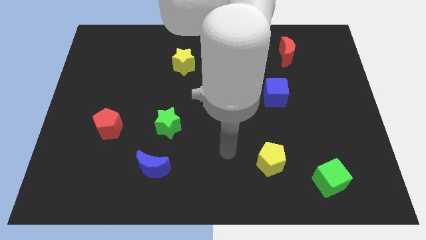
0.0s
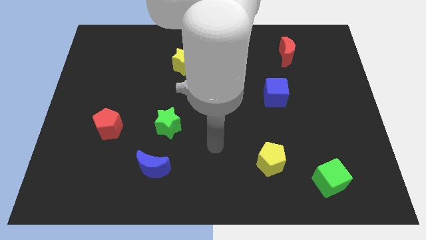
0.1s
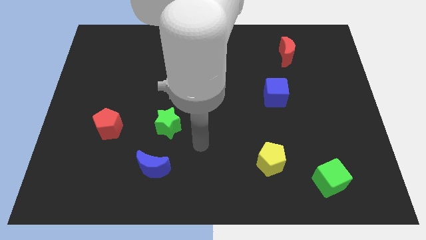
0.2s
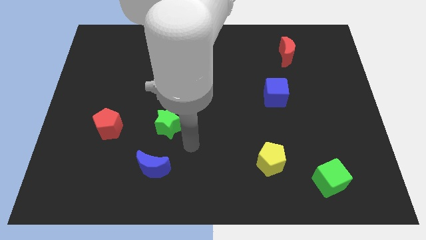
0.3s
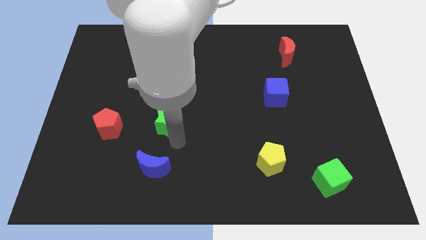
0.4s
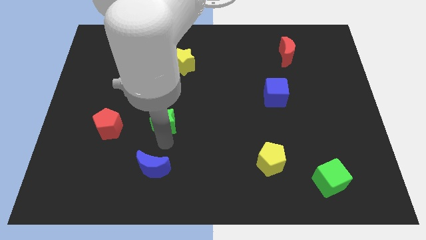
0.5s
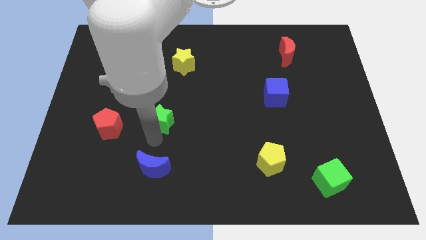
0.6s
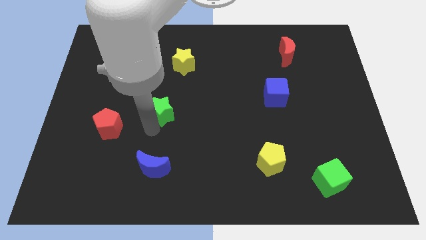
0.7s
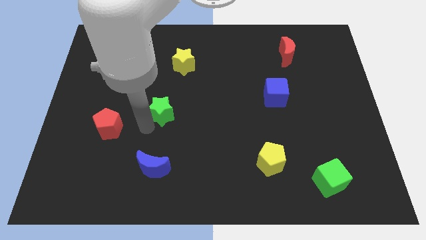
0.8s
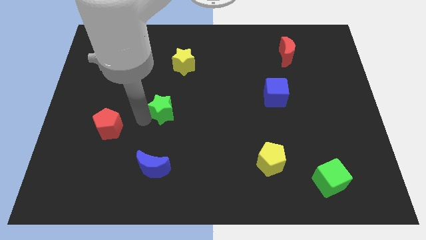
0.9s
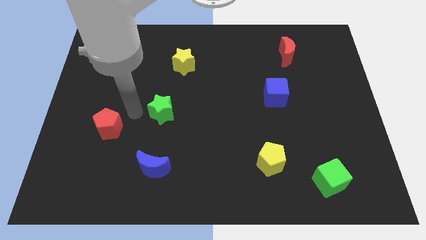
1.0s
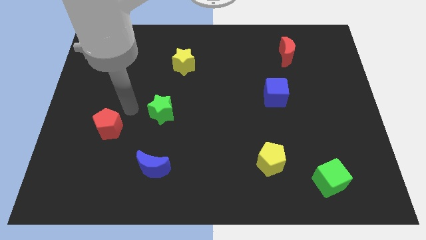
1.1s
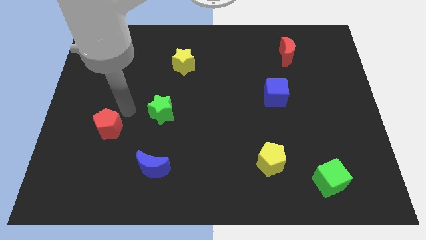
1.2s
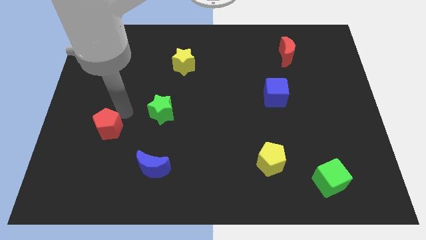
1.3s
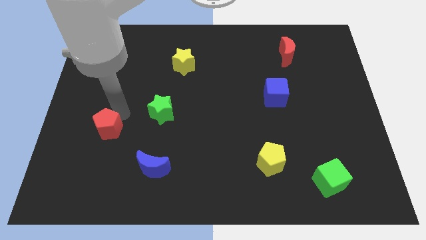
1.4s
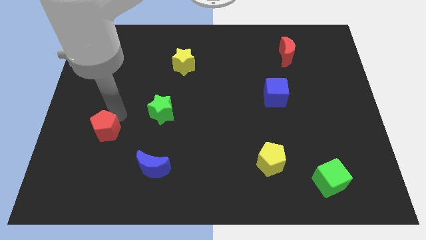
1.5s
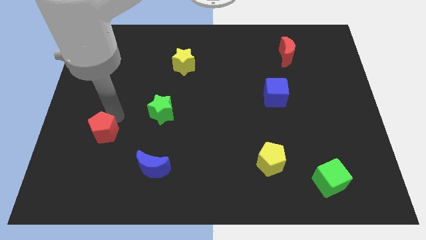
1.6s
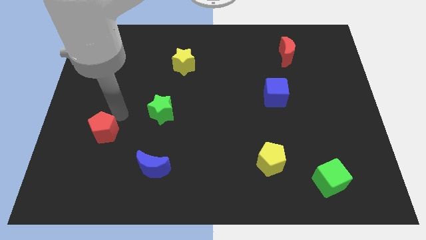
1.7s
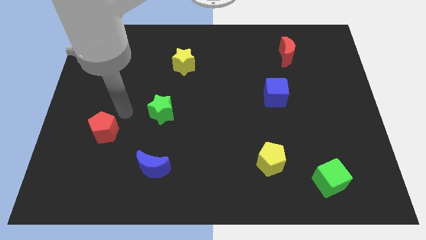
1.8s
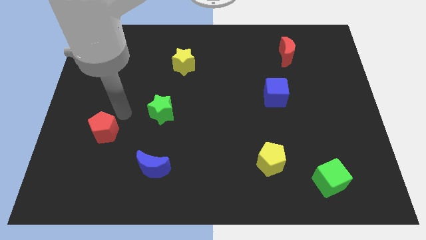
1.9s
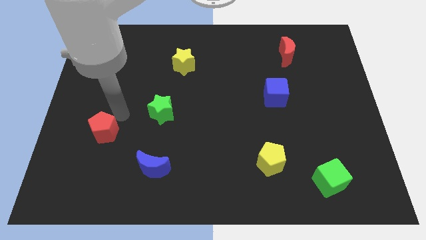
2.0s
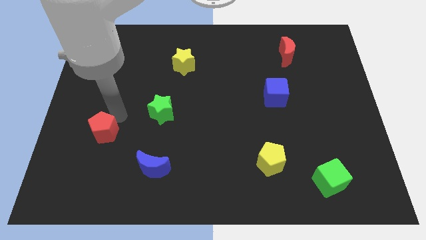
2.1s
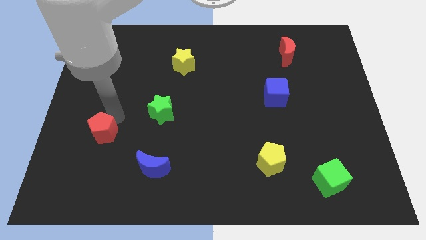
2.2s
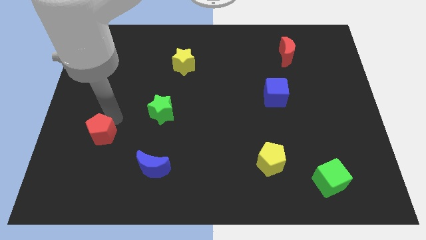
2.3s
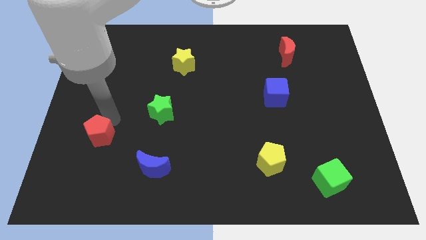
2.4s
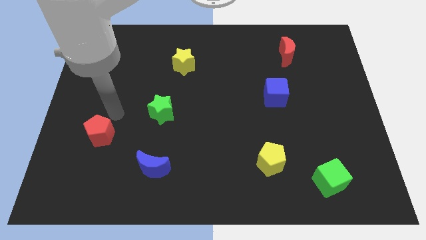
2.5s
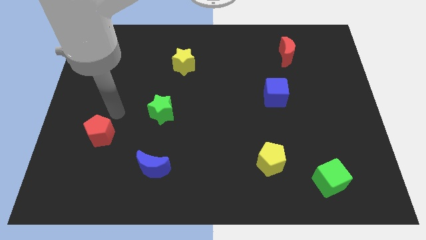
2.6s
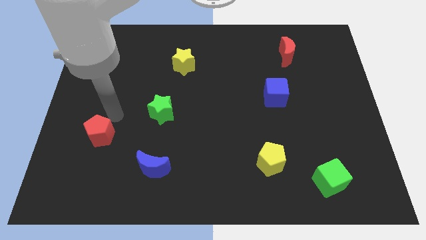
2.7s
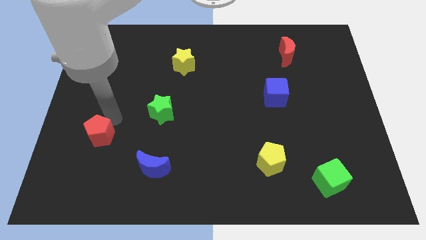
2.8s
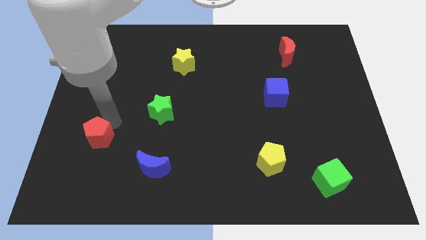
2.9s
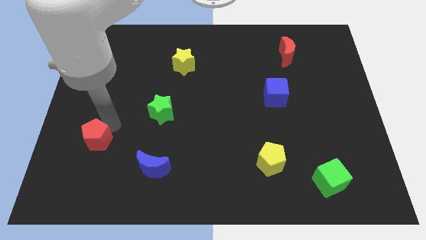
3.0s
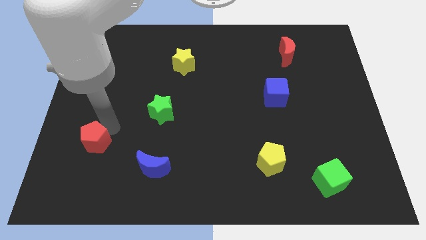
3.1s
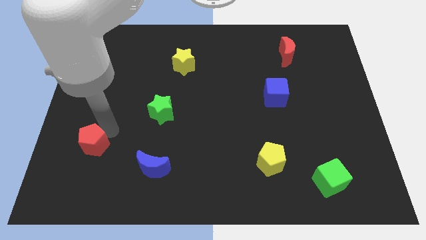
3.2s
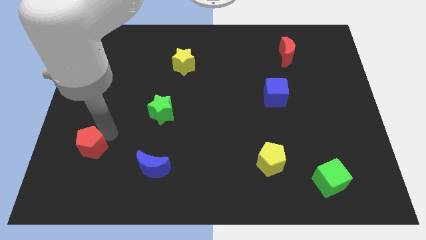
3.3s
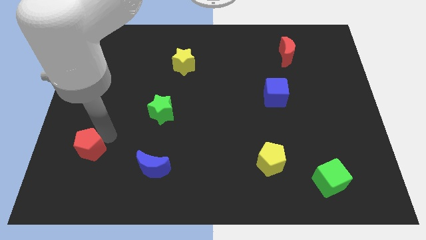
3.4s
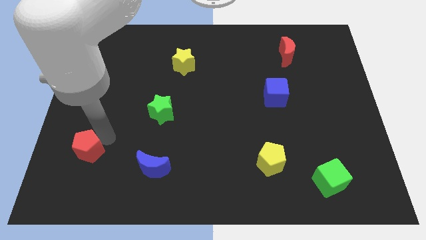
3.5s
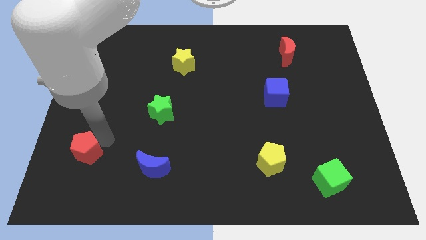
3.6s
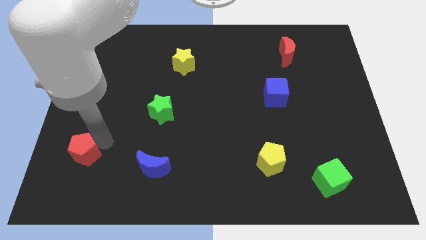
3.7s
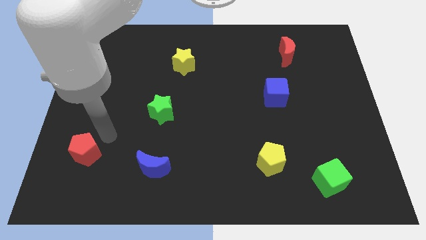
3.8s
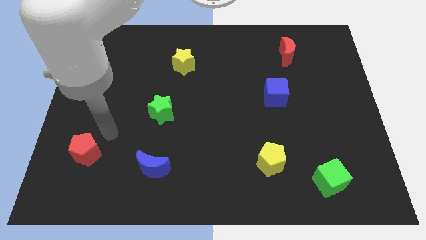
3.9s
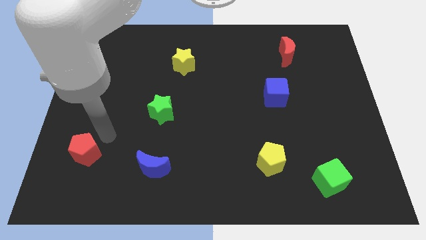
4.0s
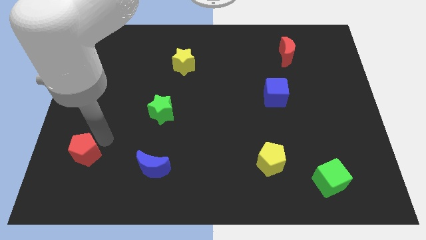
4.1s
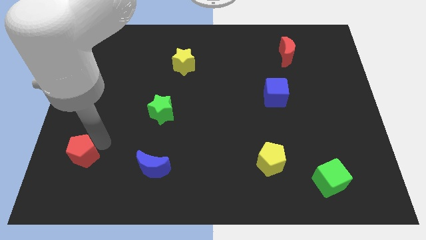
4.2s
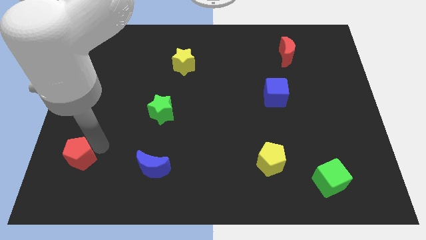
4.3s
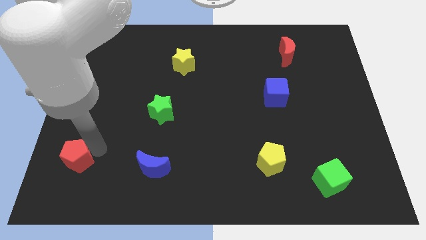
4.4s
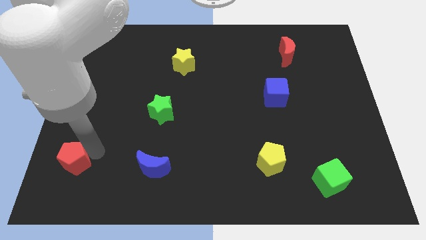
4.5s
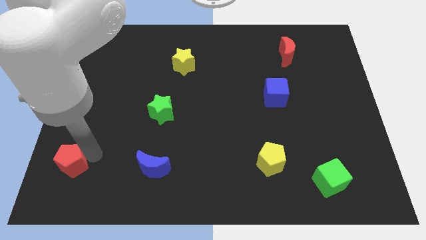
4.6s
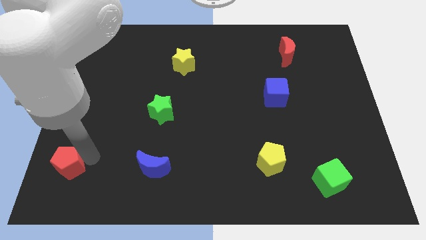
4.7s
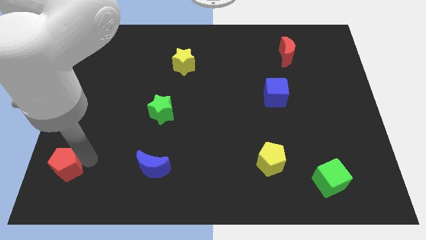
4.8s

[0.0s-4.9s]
move the red pentagon to the lower left corner

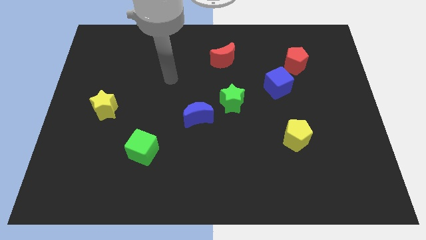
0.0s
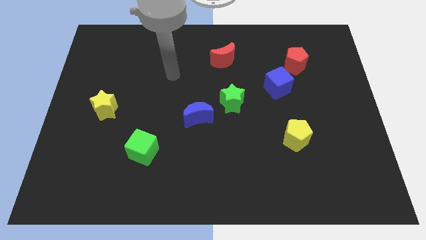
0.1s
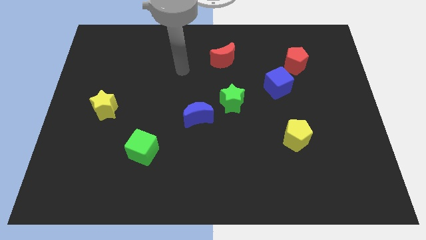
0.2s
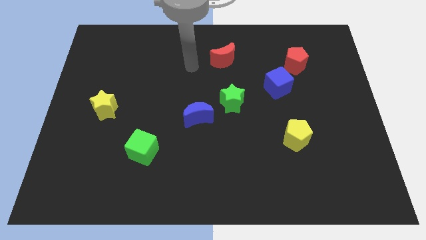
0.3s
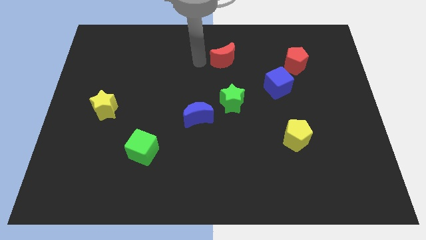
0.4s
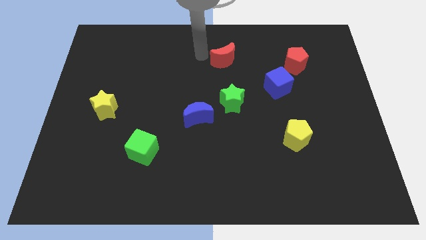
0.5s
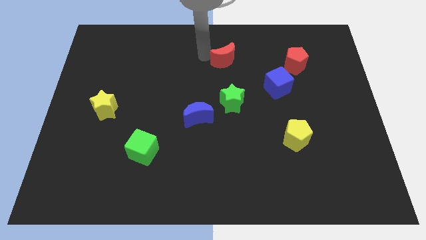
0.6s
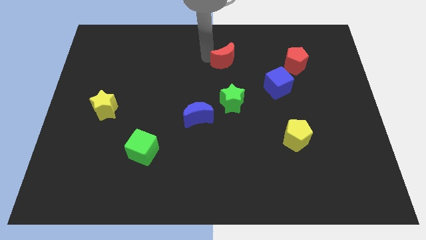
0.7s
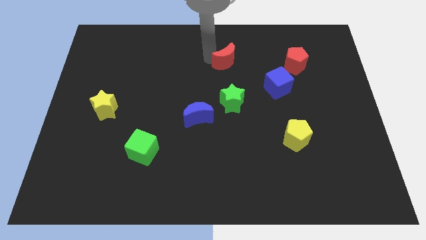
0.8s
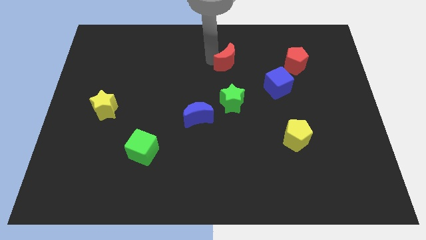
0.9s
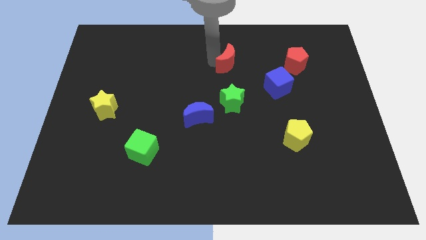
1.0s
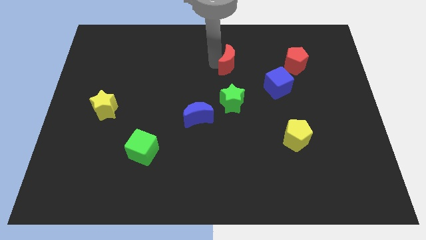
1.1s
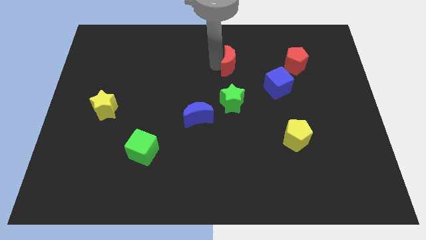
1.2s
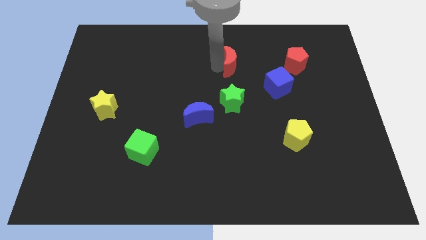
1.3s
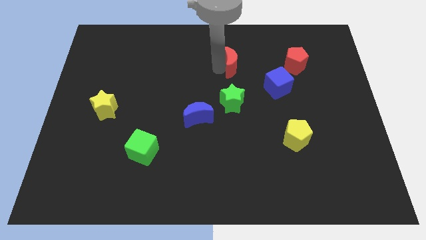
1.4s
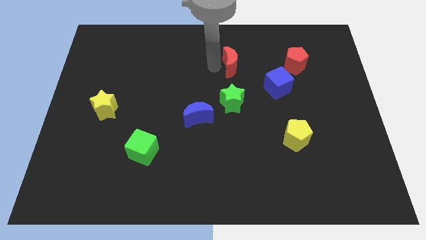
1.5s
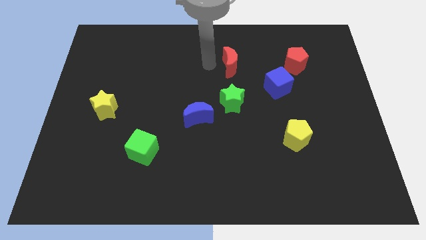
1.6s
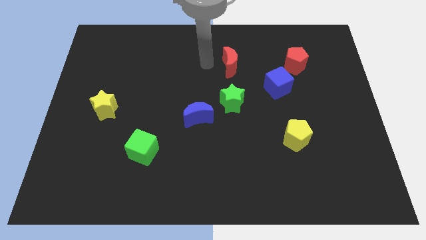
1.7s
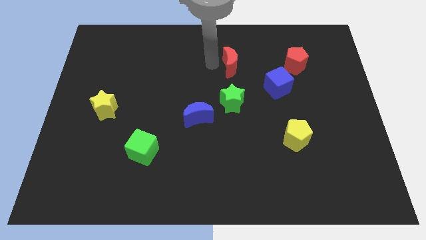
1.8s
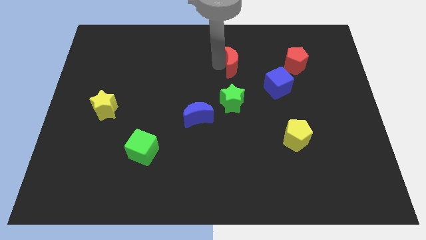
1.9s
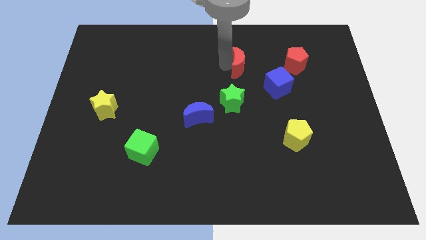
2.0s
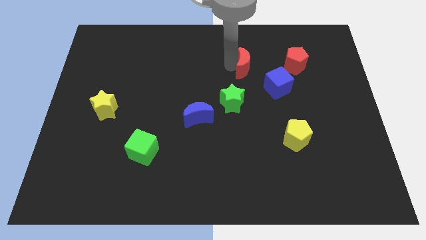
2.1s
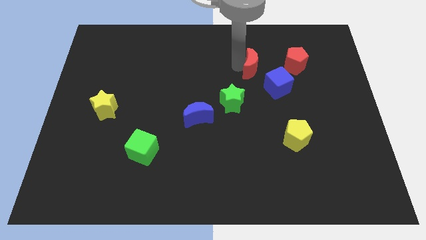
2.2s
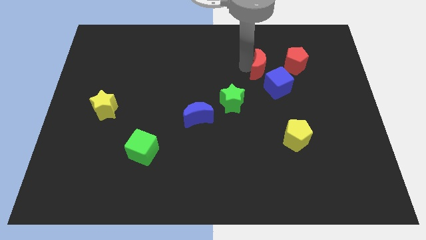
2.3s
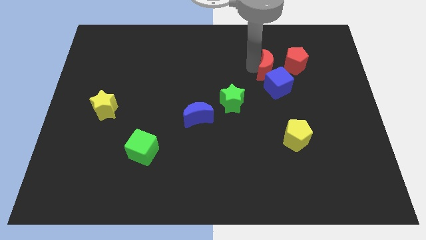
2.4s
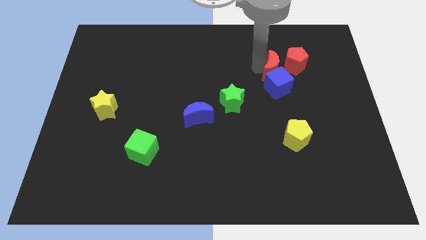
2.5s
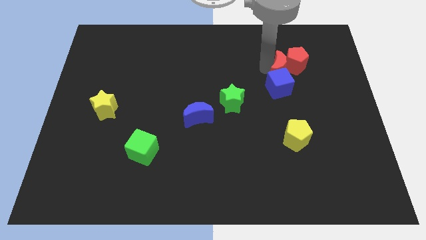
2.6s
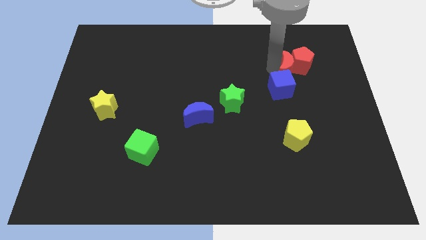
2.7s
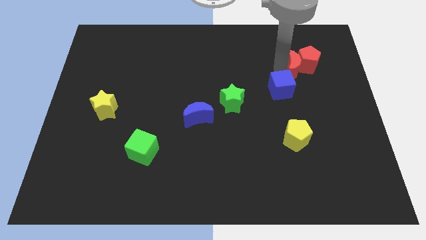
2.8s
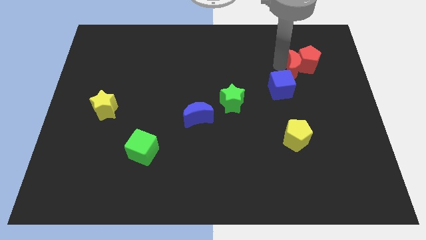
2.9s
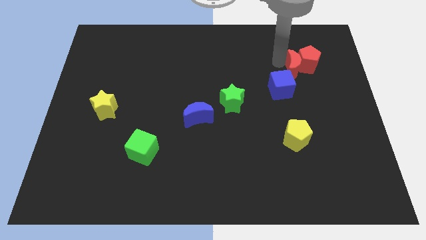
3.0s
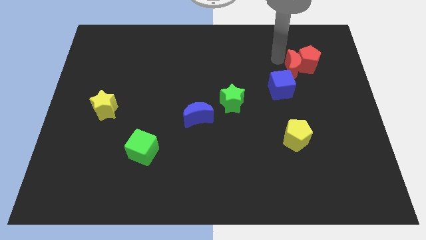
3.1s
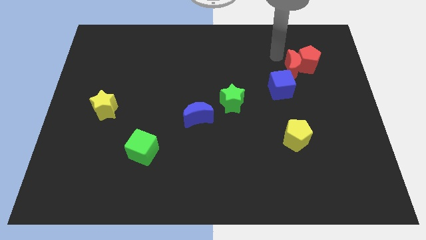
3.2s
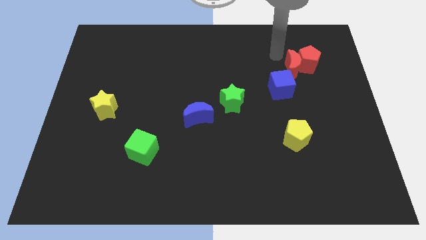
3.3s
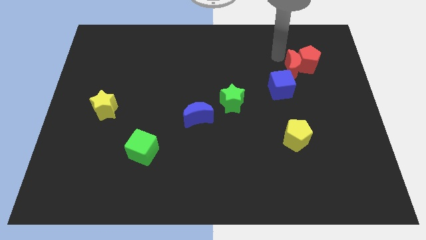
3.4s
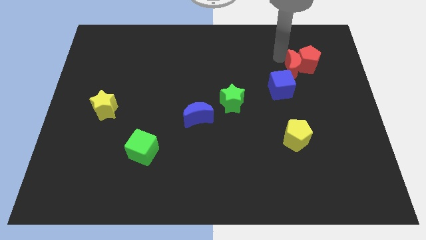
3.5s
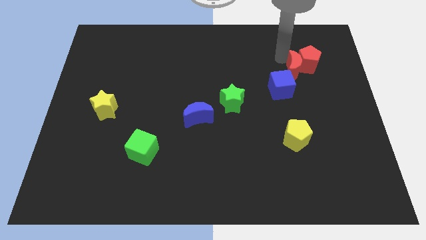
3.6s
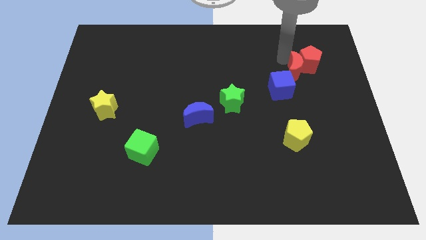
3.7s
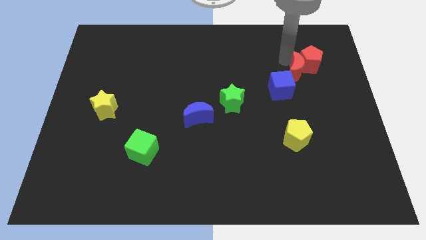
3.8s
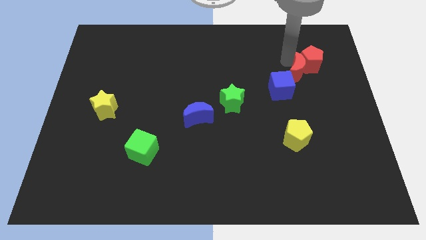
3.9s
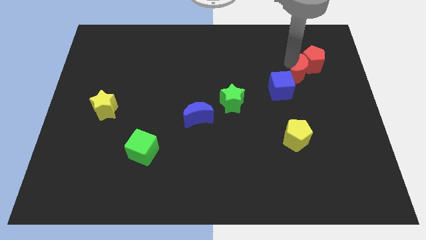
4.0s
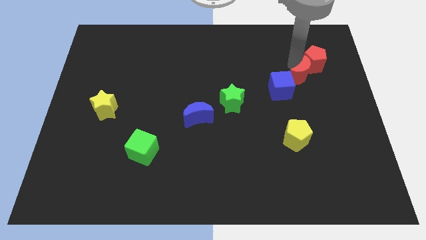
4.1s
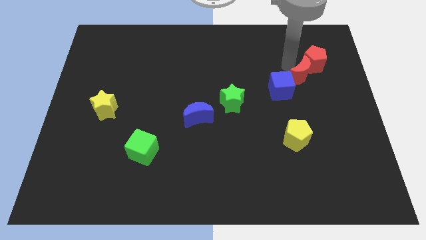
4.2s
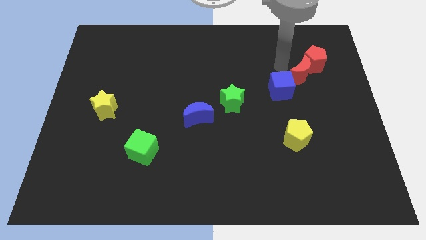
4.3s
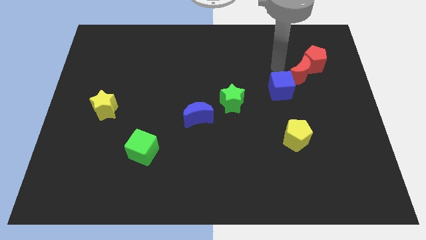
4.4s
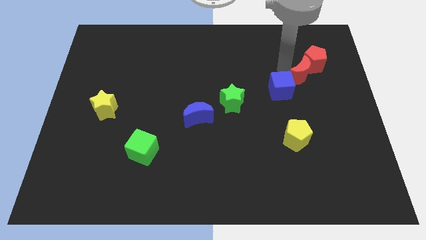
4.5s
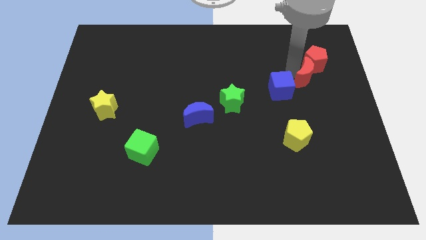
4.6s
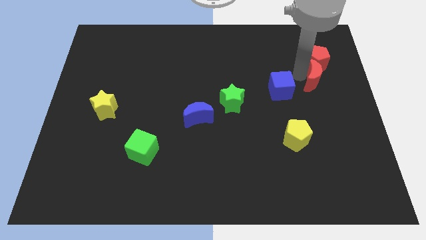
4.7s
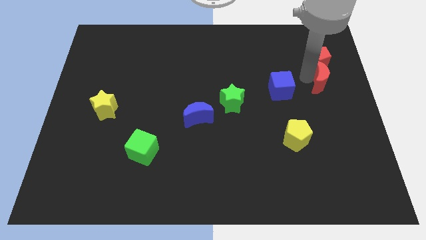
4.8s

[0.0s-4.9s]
push the red moon to the right side
